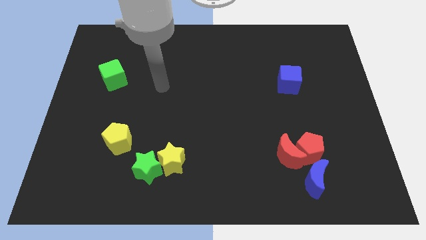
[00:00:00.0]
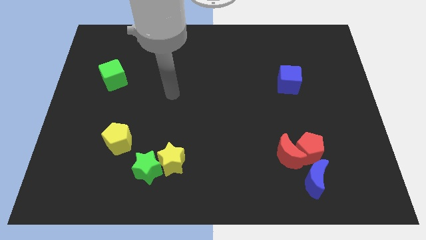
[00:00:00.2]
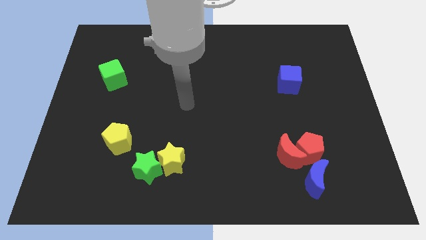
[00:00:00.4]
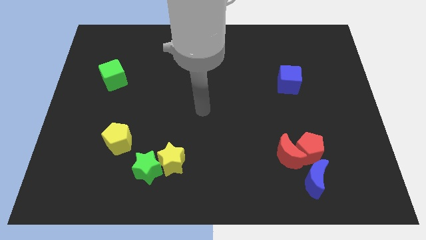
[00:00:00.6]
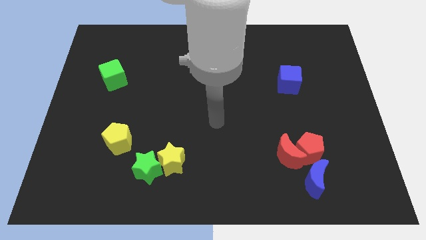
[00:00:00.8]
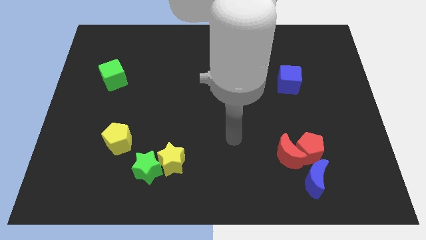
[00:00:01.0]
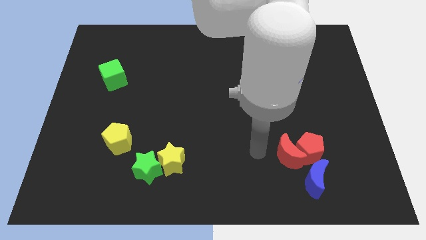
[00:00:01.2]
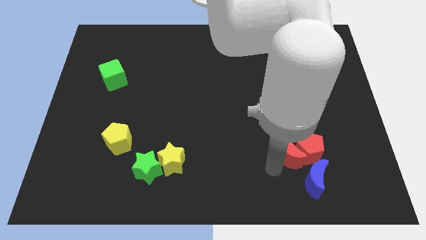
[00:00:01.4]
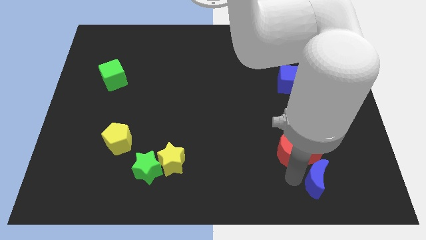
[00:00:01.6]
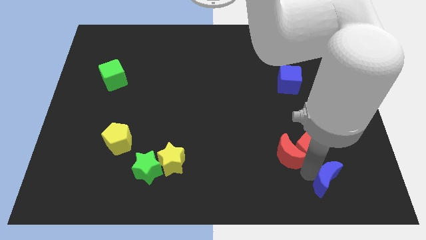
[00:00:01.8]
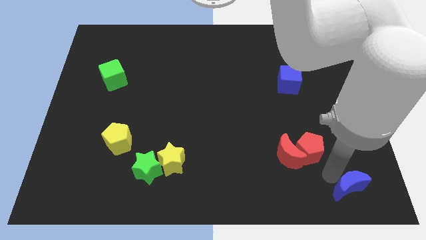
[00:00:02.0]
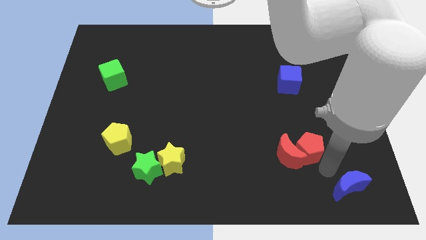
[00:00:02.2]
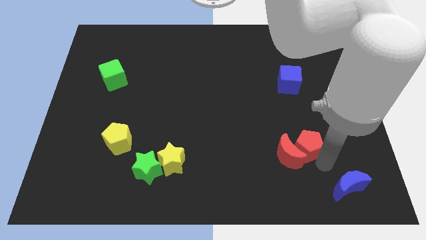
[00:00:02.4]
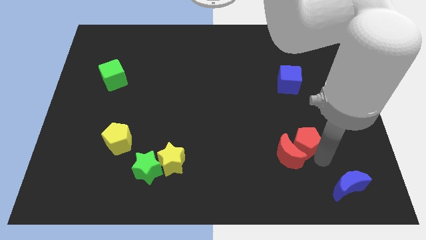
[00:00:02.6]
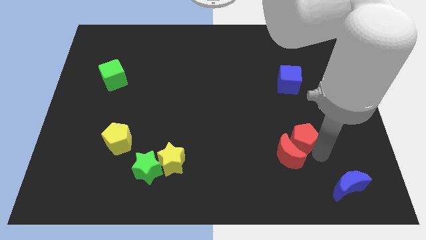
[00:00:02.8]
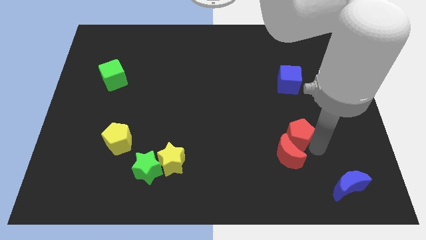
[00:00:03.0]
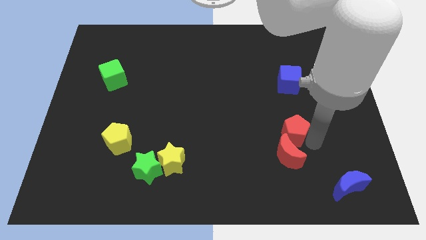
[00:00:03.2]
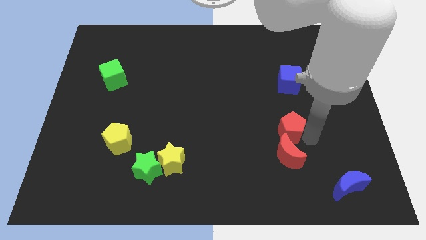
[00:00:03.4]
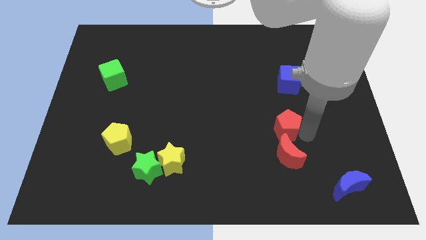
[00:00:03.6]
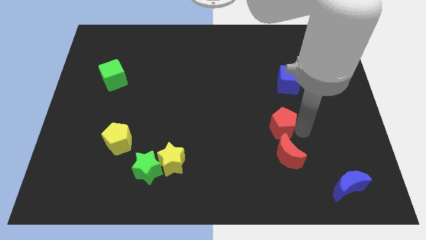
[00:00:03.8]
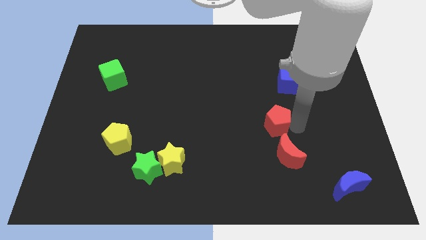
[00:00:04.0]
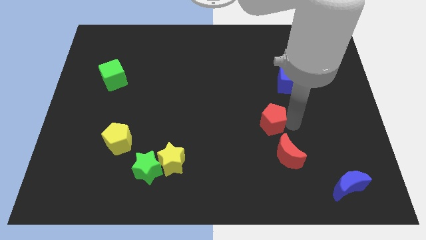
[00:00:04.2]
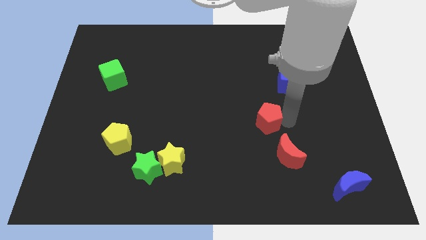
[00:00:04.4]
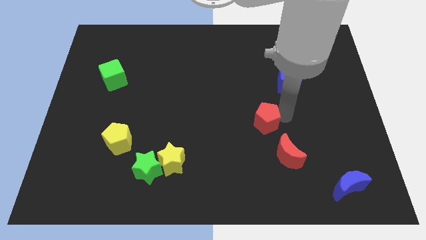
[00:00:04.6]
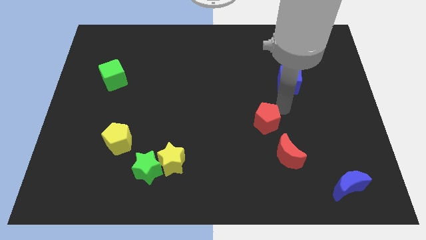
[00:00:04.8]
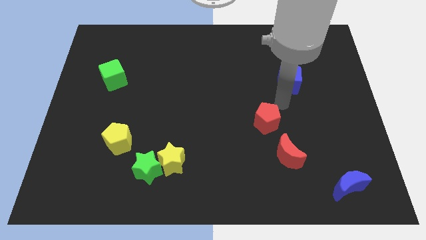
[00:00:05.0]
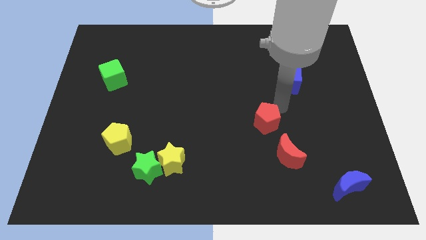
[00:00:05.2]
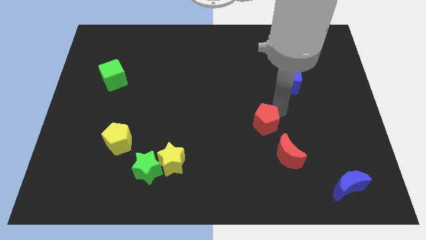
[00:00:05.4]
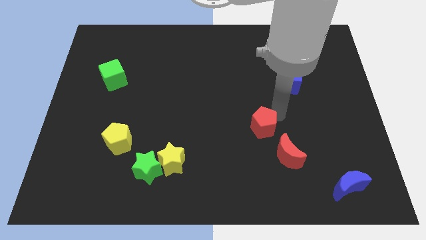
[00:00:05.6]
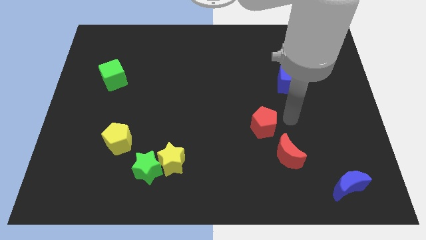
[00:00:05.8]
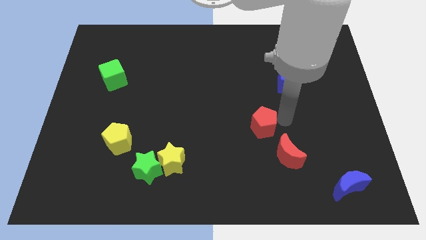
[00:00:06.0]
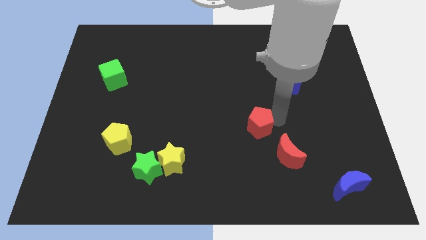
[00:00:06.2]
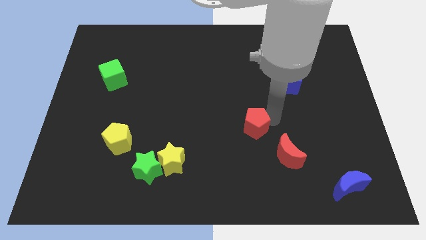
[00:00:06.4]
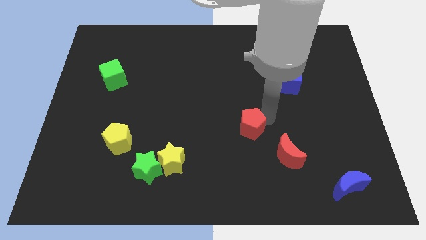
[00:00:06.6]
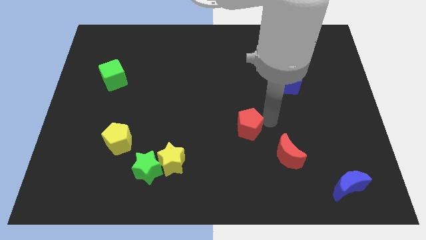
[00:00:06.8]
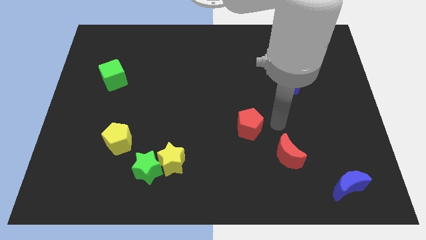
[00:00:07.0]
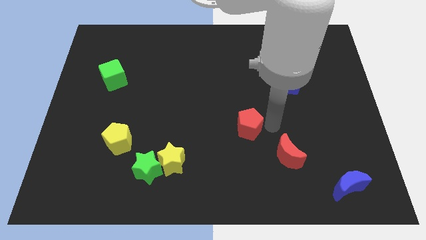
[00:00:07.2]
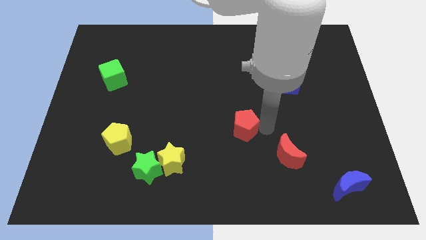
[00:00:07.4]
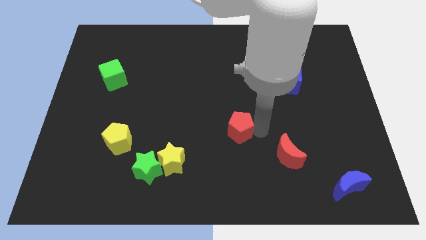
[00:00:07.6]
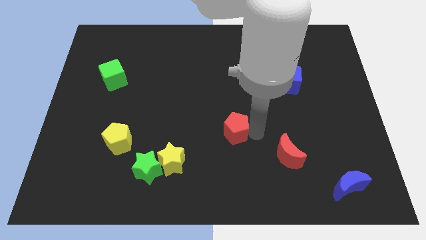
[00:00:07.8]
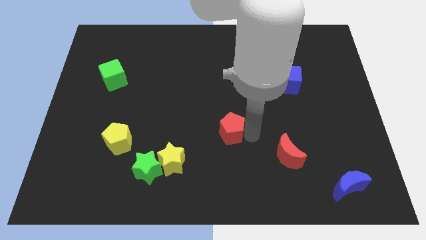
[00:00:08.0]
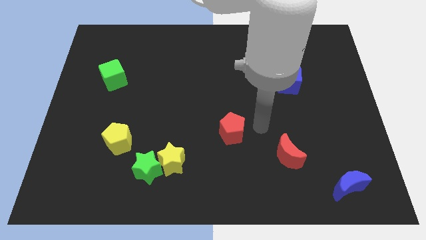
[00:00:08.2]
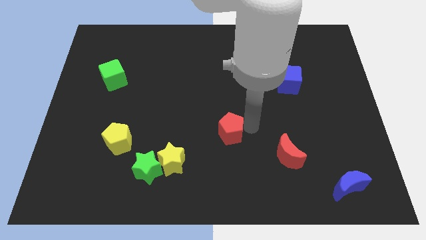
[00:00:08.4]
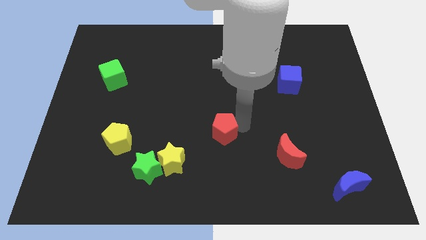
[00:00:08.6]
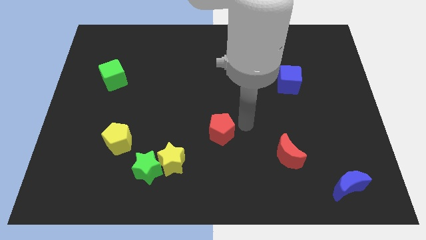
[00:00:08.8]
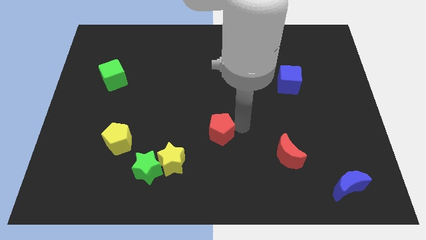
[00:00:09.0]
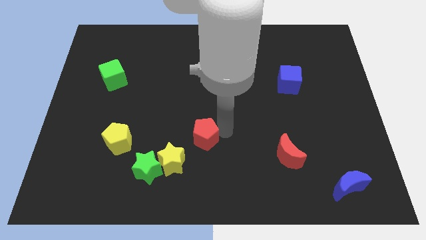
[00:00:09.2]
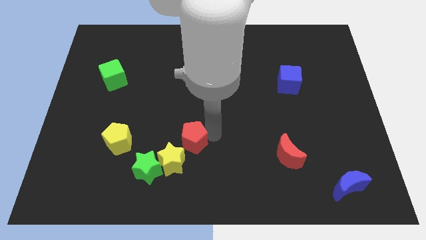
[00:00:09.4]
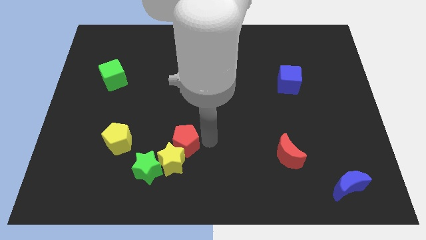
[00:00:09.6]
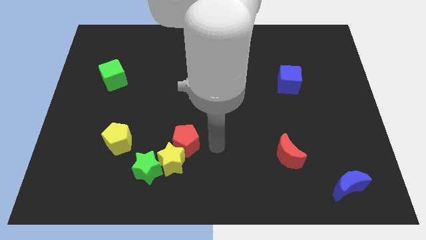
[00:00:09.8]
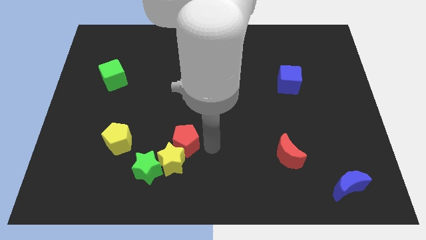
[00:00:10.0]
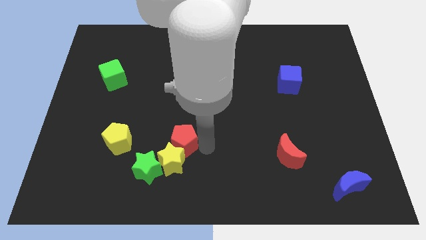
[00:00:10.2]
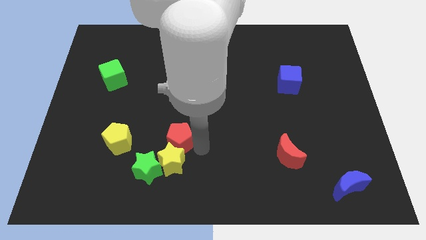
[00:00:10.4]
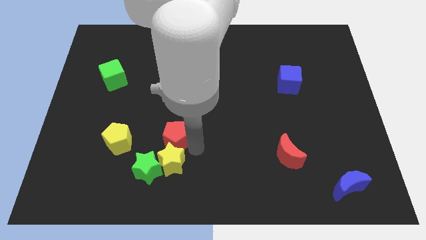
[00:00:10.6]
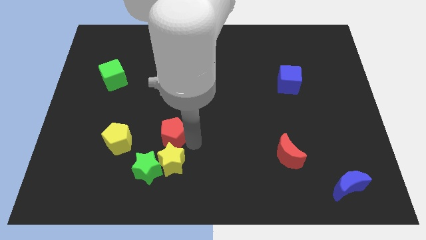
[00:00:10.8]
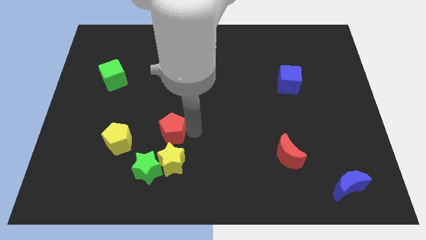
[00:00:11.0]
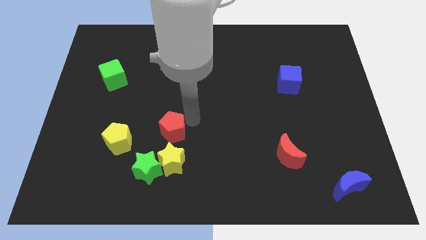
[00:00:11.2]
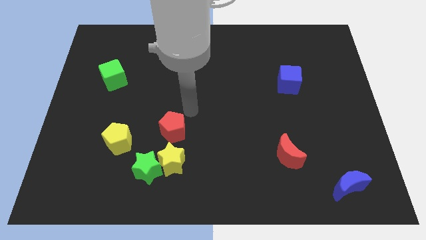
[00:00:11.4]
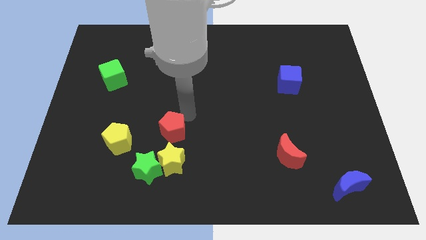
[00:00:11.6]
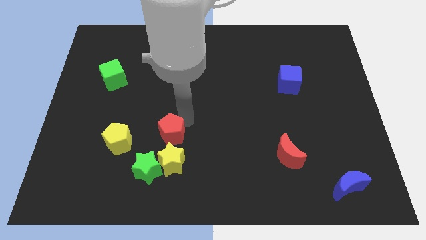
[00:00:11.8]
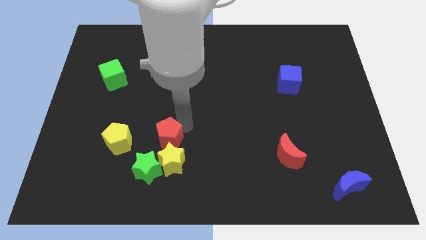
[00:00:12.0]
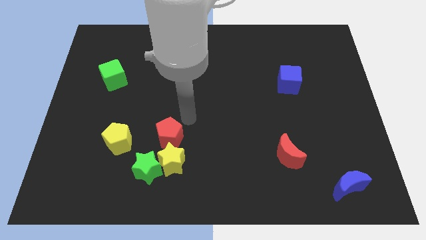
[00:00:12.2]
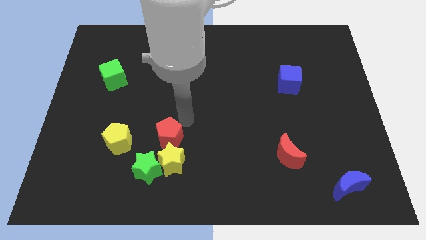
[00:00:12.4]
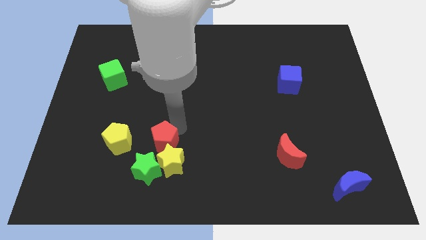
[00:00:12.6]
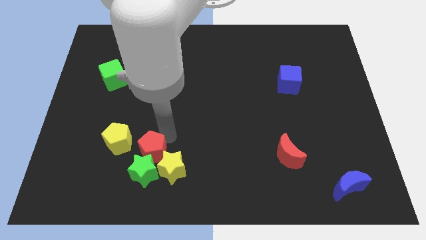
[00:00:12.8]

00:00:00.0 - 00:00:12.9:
put the red pentagon to the green star

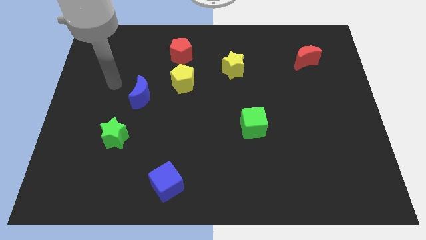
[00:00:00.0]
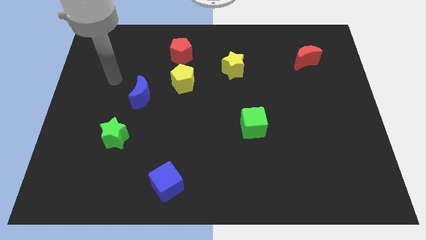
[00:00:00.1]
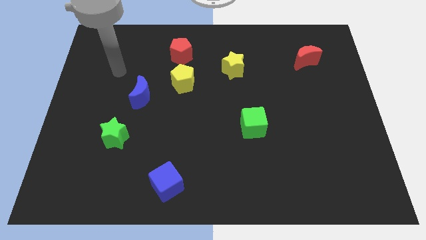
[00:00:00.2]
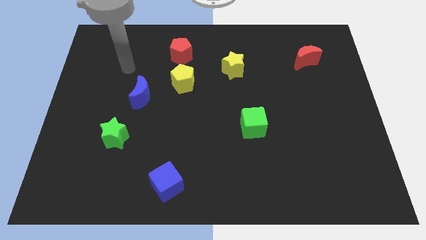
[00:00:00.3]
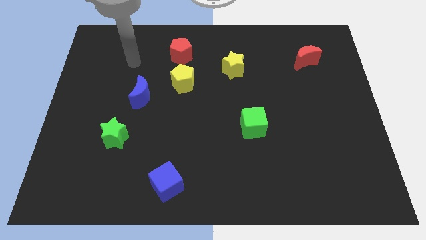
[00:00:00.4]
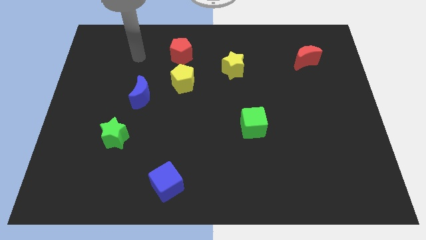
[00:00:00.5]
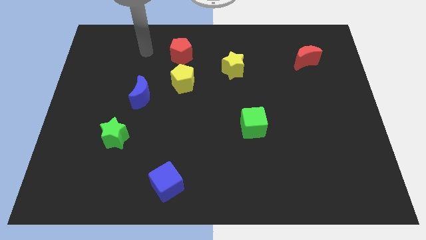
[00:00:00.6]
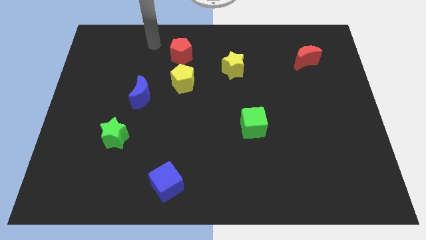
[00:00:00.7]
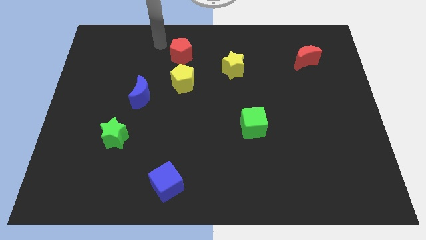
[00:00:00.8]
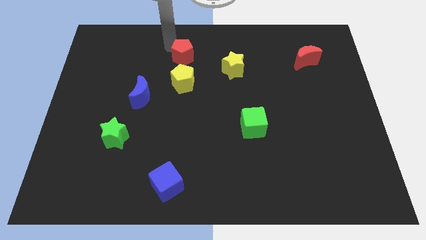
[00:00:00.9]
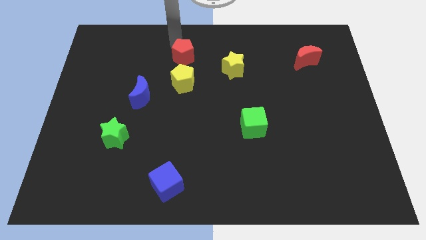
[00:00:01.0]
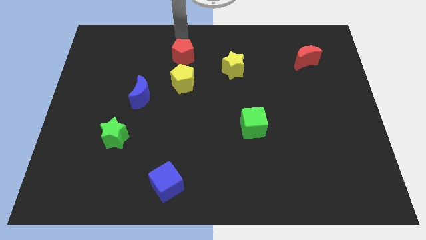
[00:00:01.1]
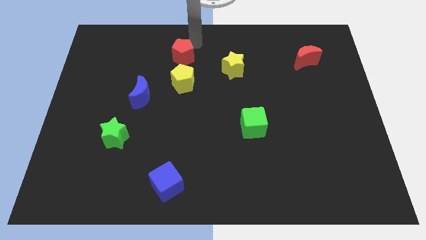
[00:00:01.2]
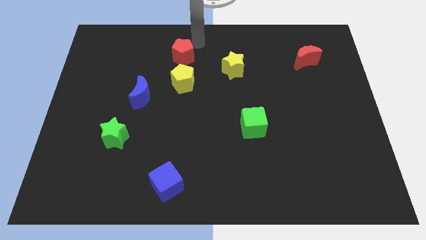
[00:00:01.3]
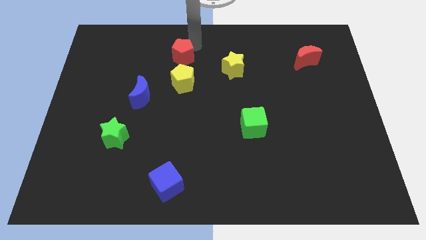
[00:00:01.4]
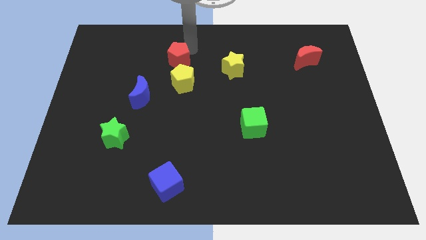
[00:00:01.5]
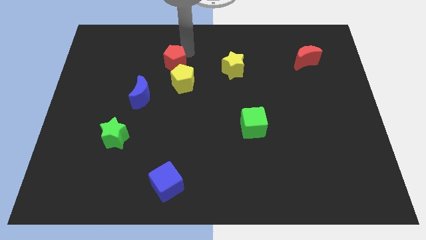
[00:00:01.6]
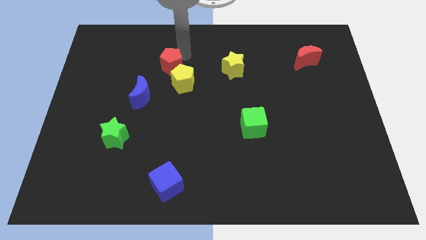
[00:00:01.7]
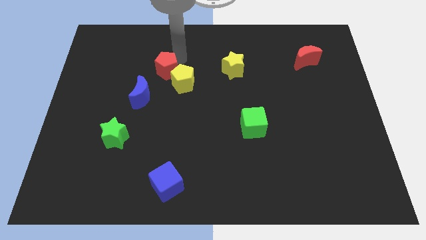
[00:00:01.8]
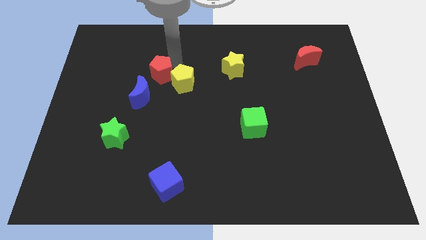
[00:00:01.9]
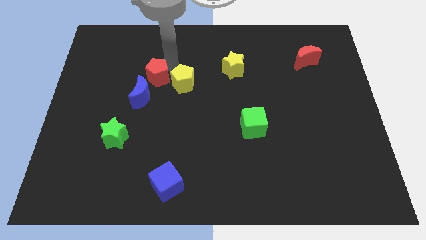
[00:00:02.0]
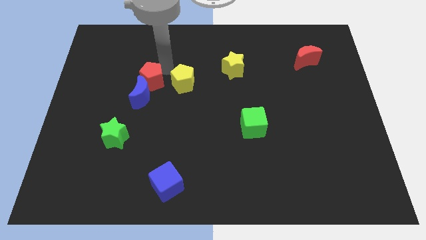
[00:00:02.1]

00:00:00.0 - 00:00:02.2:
slide the red pentagon next to the blue moon
